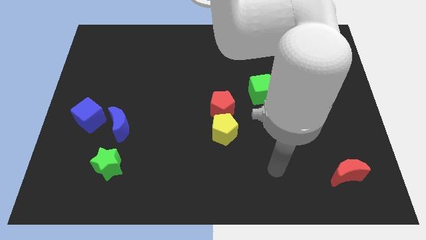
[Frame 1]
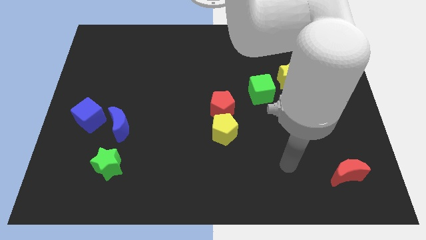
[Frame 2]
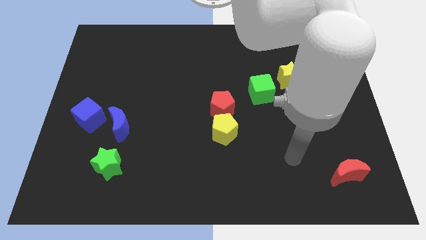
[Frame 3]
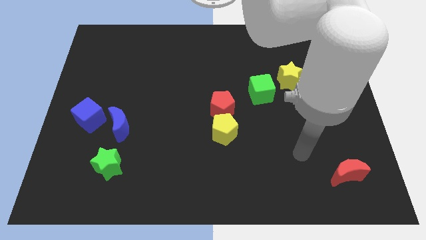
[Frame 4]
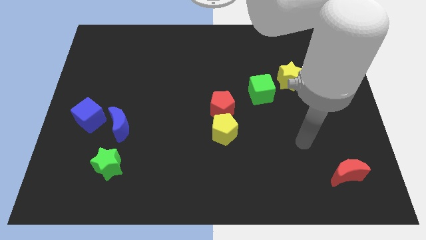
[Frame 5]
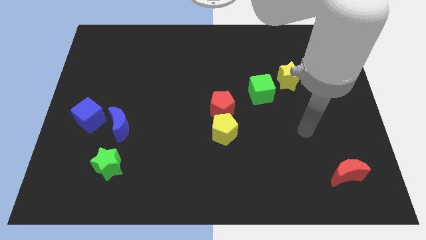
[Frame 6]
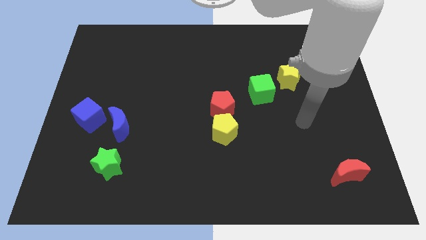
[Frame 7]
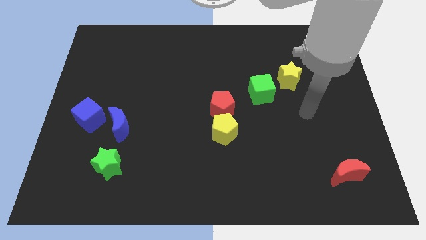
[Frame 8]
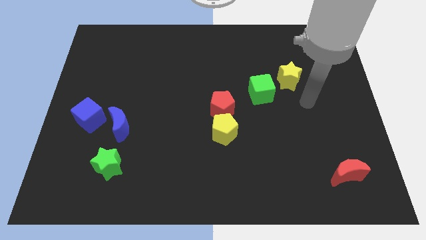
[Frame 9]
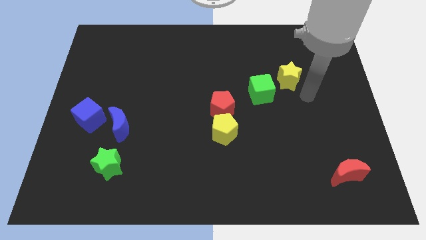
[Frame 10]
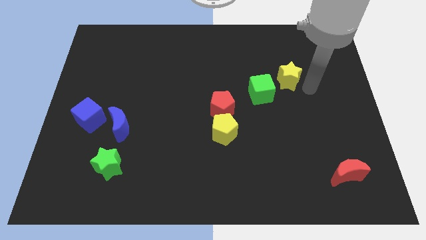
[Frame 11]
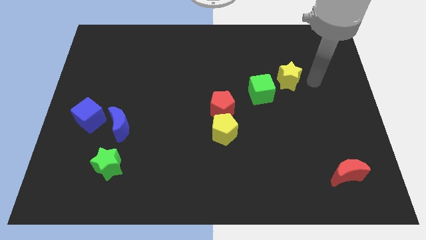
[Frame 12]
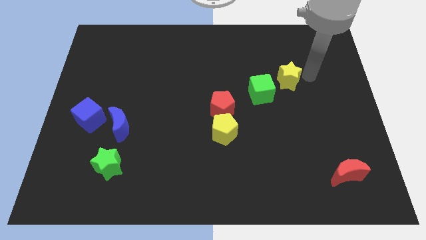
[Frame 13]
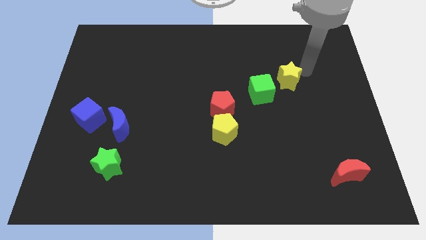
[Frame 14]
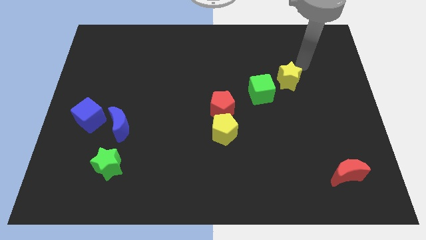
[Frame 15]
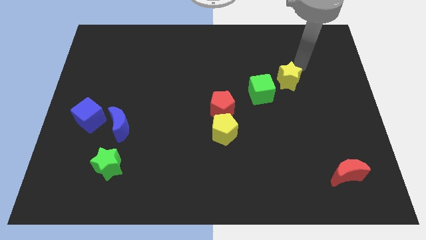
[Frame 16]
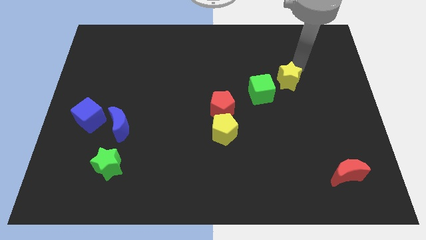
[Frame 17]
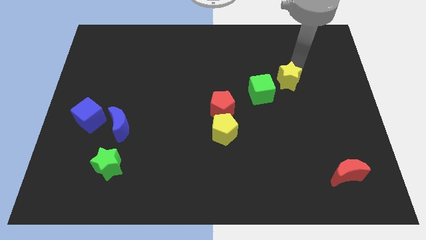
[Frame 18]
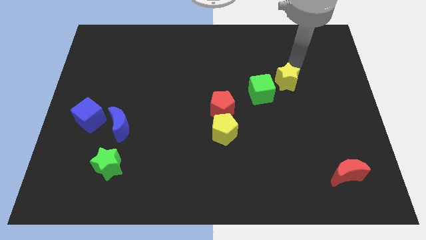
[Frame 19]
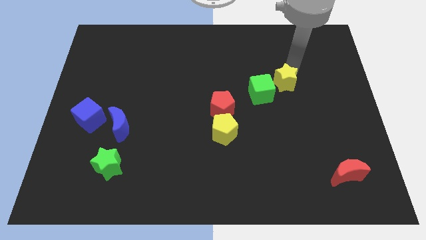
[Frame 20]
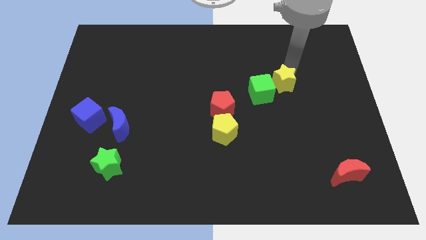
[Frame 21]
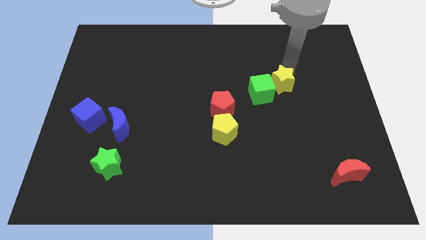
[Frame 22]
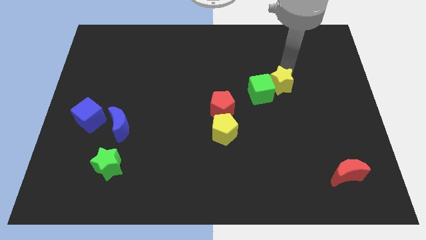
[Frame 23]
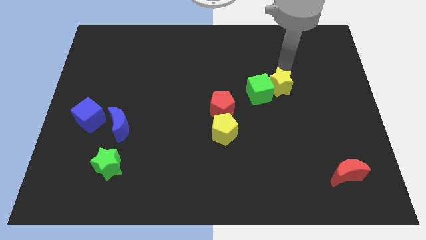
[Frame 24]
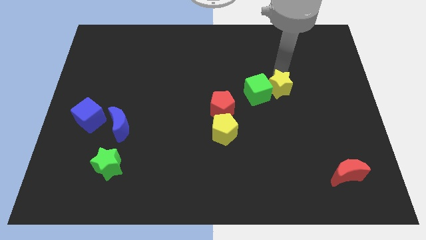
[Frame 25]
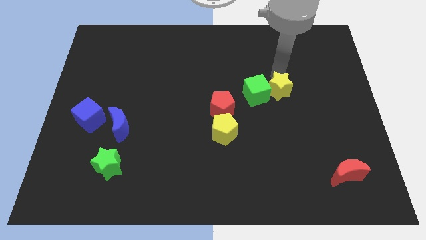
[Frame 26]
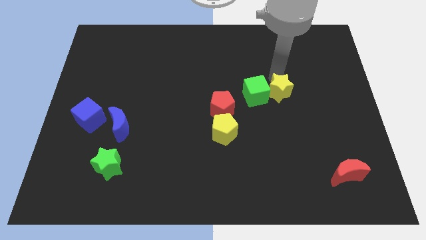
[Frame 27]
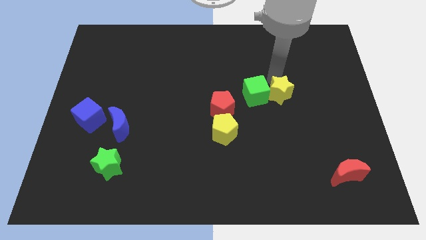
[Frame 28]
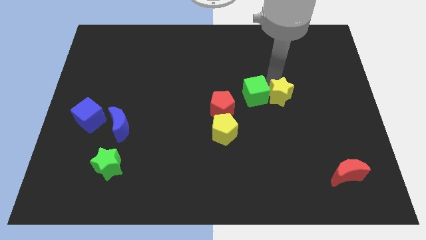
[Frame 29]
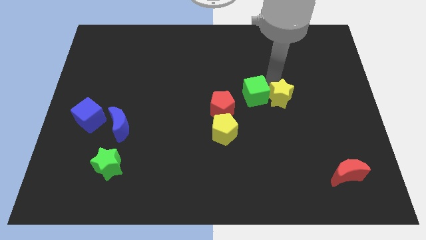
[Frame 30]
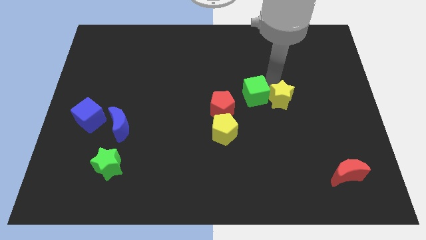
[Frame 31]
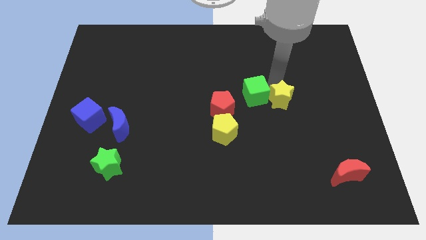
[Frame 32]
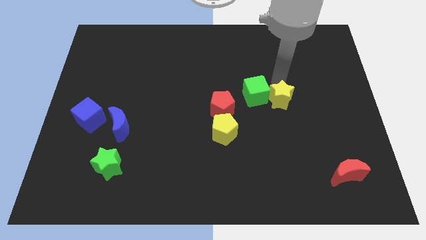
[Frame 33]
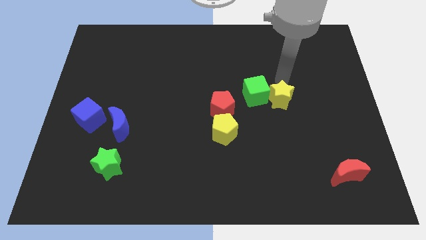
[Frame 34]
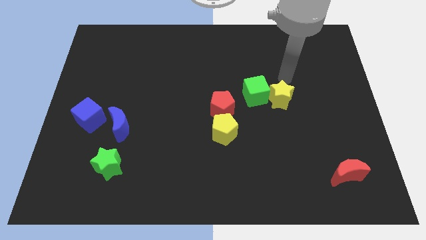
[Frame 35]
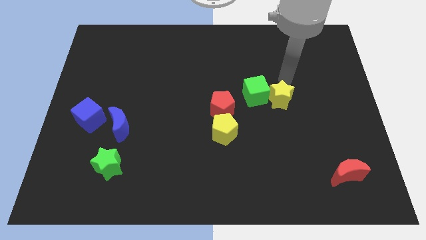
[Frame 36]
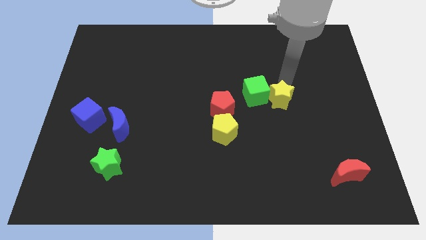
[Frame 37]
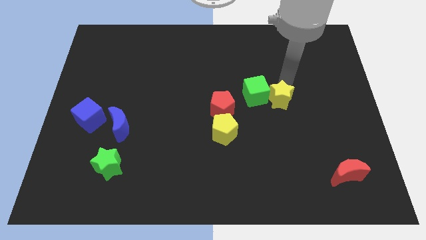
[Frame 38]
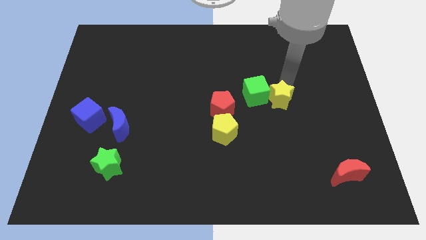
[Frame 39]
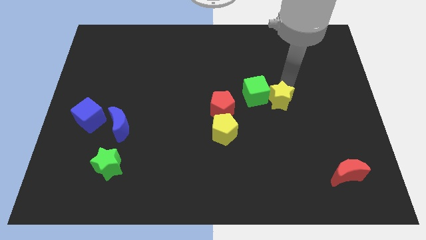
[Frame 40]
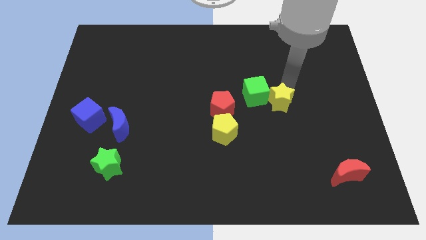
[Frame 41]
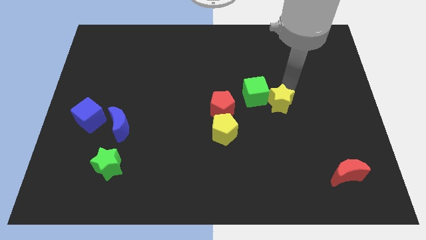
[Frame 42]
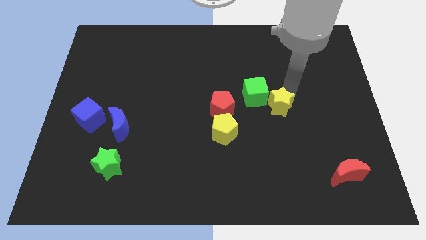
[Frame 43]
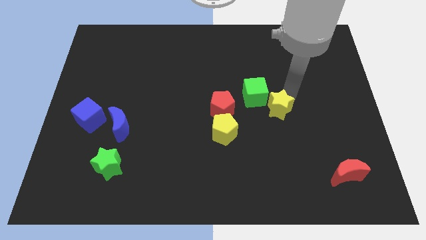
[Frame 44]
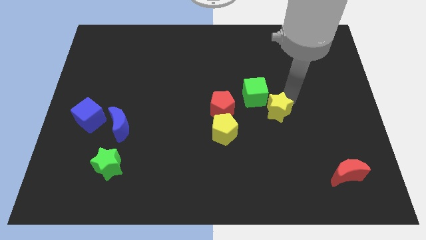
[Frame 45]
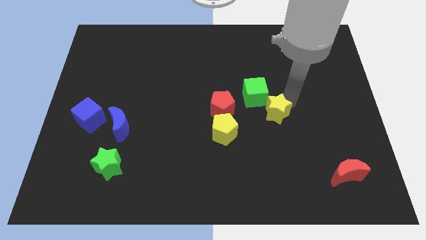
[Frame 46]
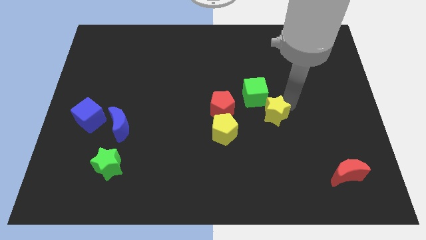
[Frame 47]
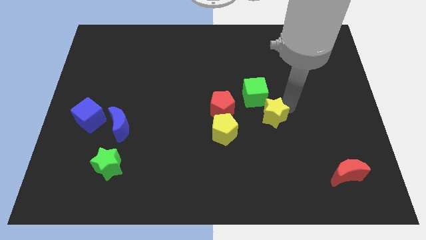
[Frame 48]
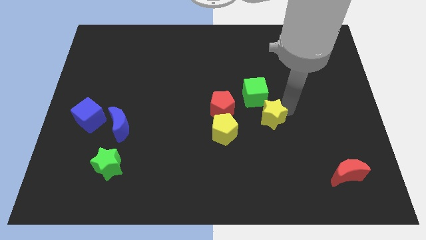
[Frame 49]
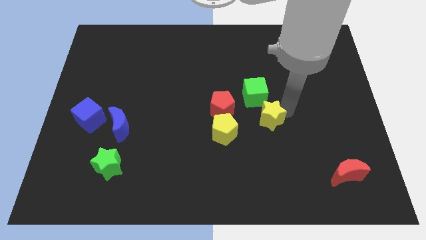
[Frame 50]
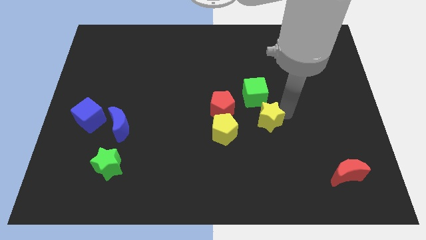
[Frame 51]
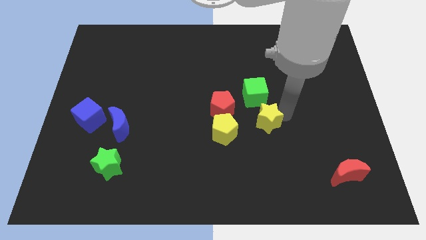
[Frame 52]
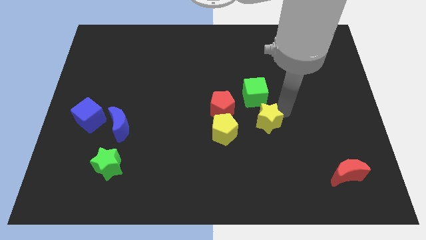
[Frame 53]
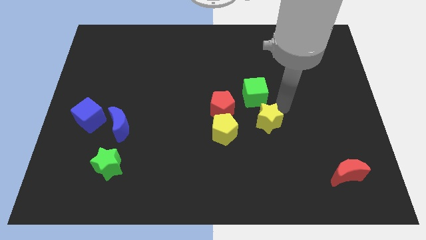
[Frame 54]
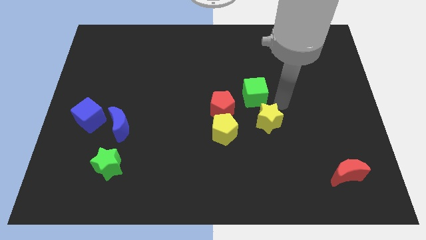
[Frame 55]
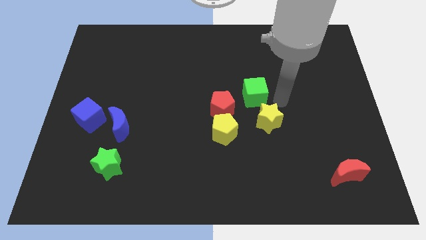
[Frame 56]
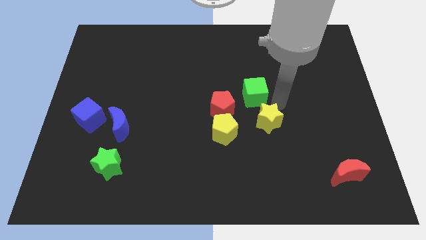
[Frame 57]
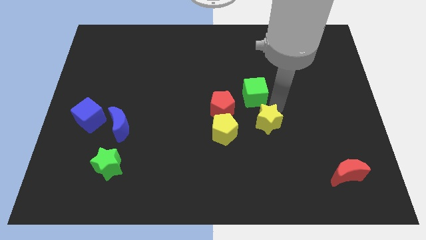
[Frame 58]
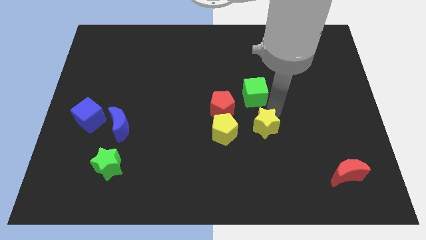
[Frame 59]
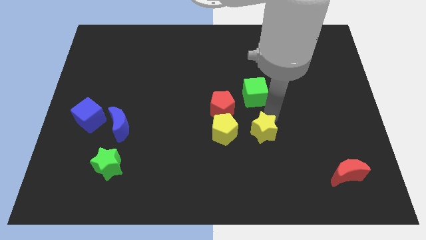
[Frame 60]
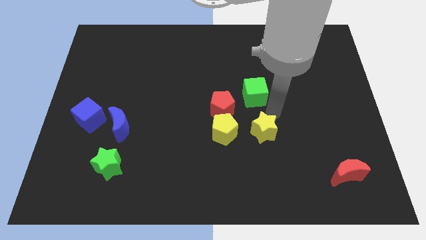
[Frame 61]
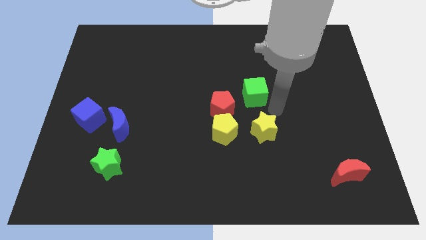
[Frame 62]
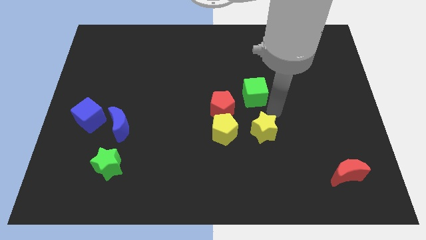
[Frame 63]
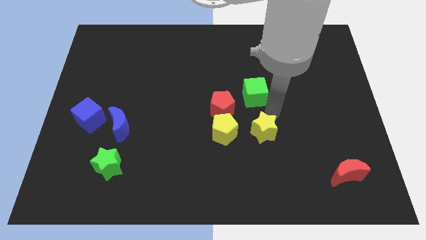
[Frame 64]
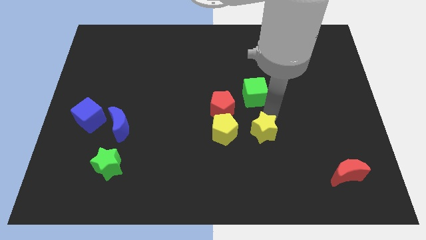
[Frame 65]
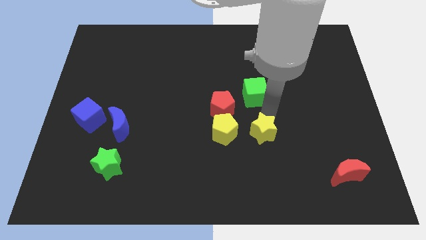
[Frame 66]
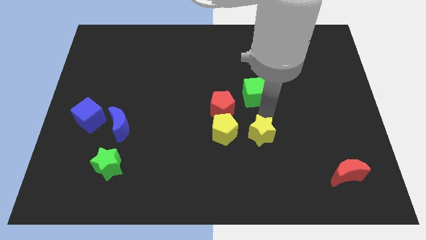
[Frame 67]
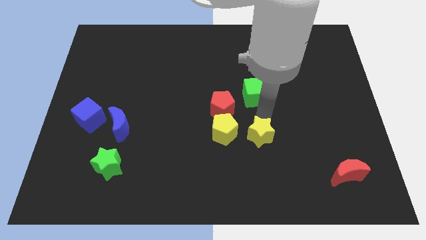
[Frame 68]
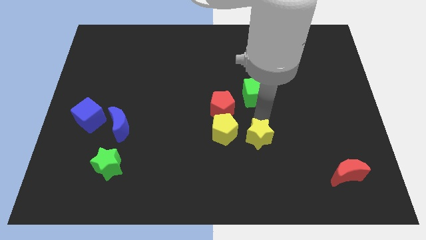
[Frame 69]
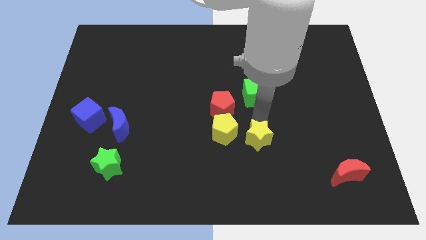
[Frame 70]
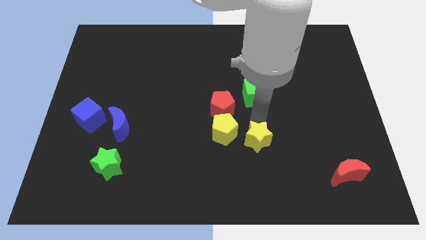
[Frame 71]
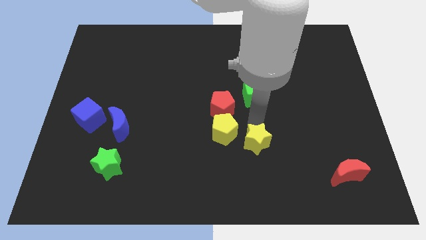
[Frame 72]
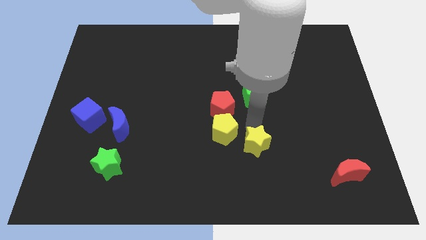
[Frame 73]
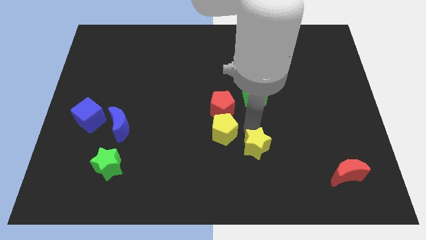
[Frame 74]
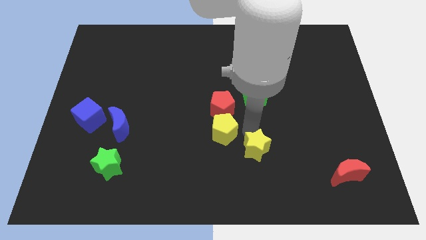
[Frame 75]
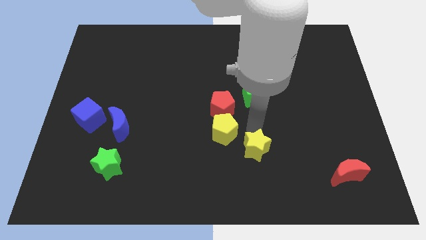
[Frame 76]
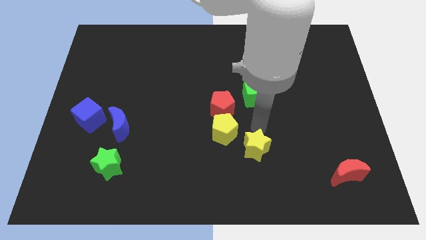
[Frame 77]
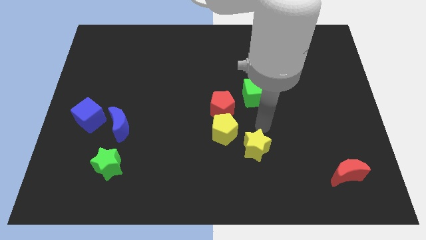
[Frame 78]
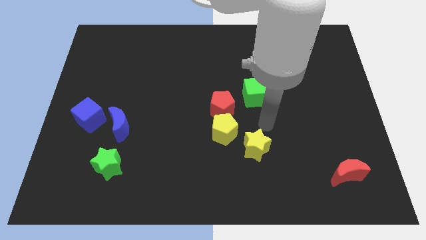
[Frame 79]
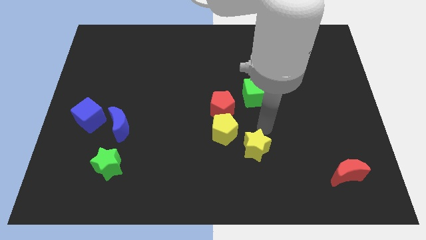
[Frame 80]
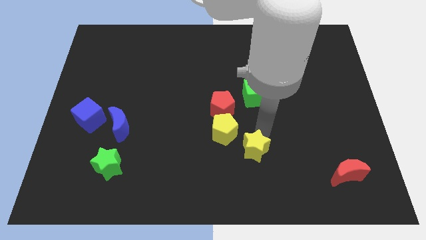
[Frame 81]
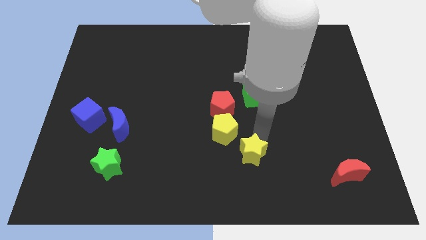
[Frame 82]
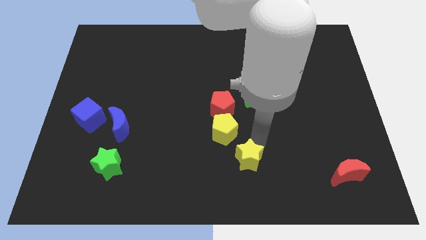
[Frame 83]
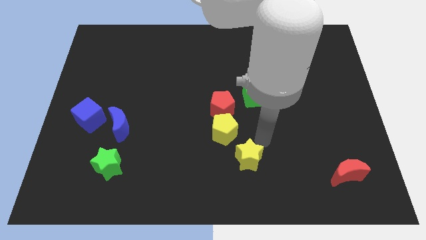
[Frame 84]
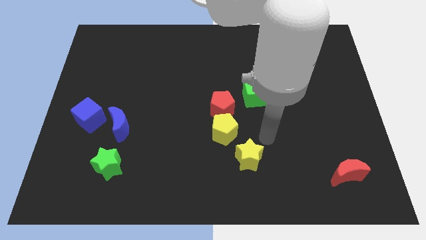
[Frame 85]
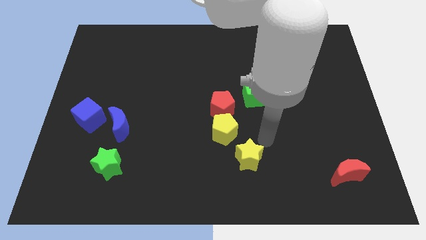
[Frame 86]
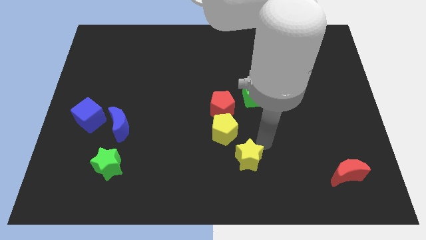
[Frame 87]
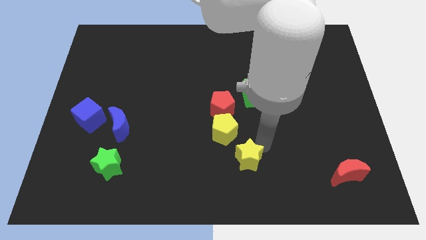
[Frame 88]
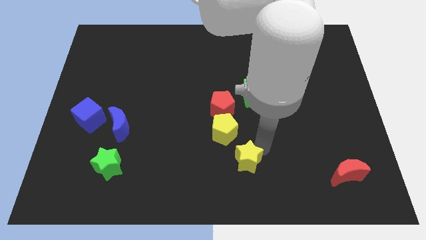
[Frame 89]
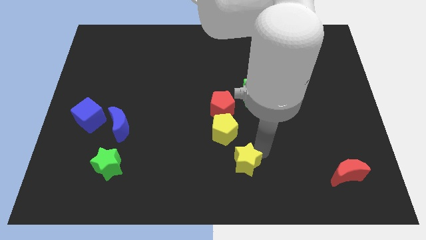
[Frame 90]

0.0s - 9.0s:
put the yellow star to the bottom
